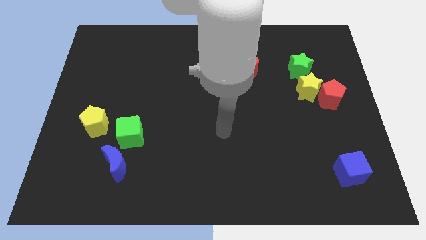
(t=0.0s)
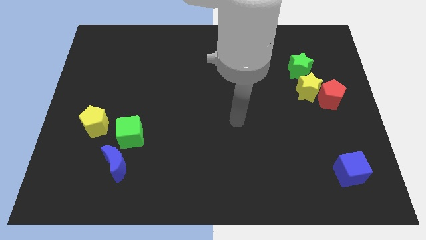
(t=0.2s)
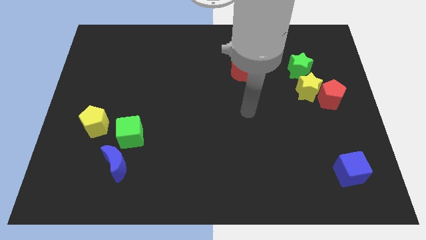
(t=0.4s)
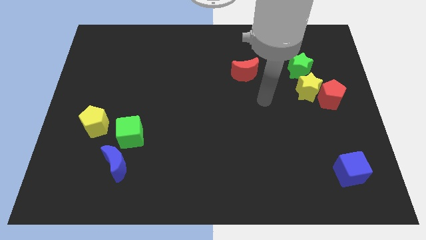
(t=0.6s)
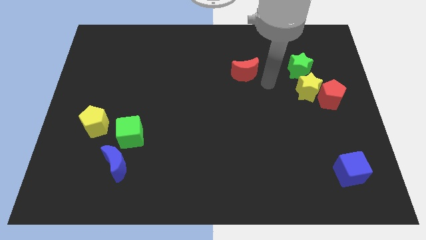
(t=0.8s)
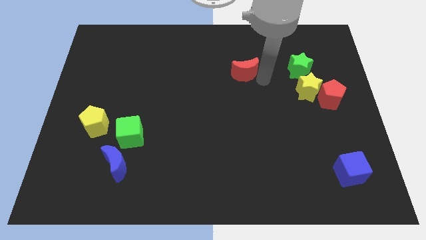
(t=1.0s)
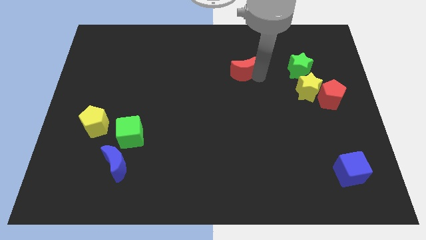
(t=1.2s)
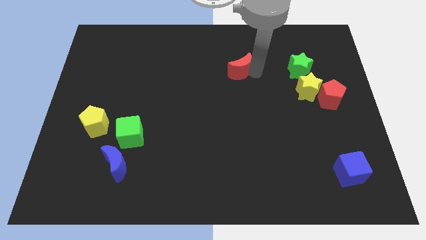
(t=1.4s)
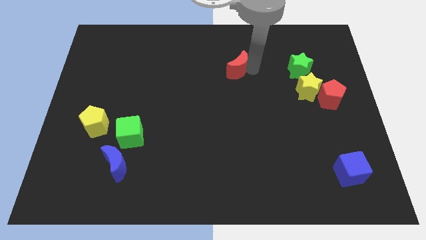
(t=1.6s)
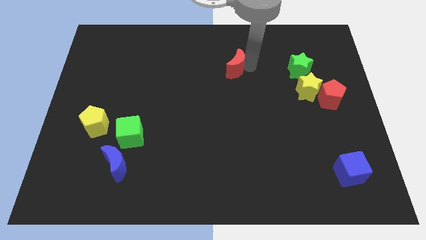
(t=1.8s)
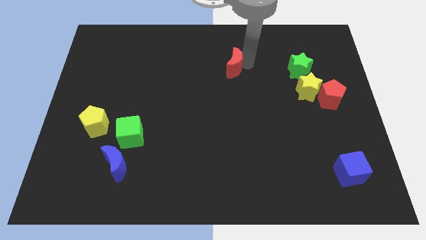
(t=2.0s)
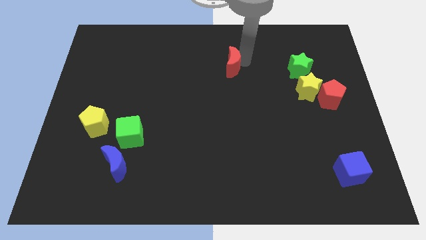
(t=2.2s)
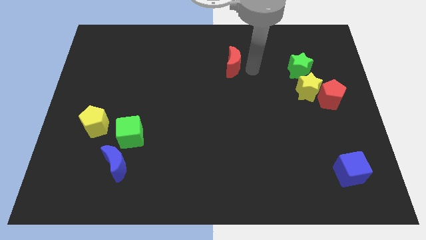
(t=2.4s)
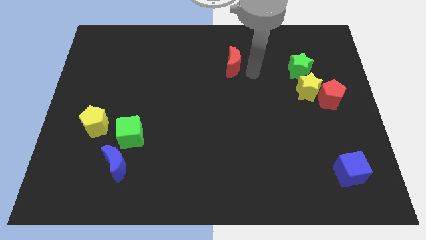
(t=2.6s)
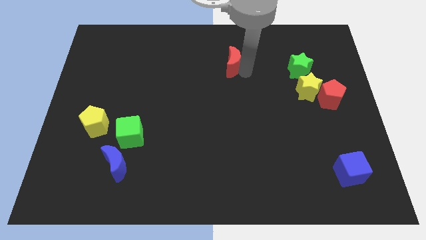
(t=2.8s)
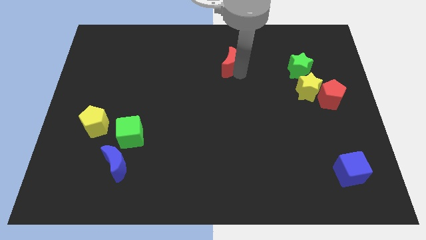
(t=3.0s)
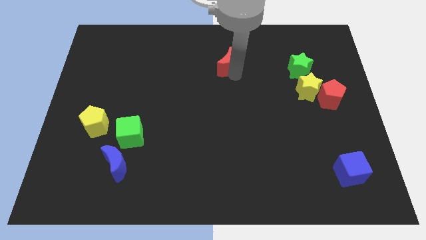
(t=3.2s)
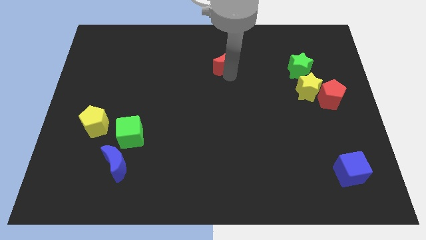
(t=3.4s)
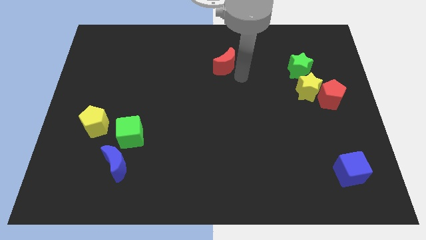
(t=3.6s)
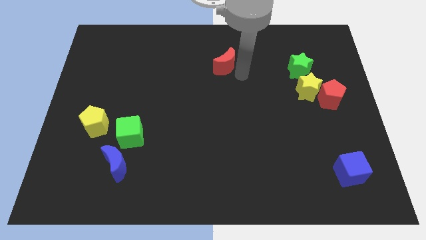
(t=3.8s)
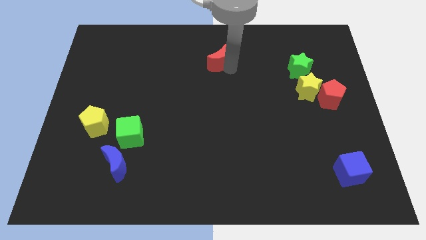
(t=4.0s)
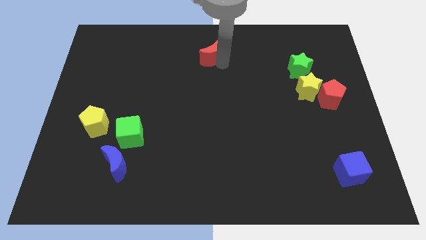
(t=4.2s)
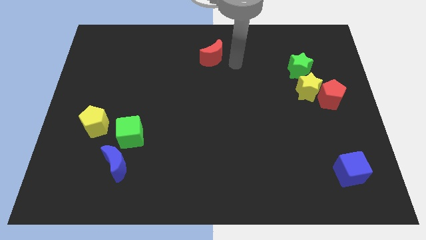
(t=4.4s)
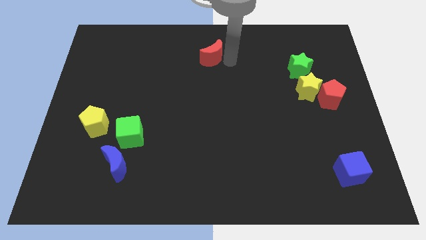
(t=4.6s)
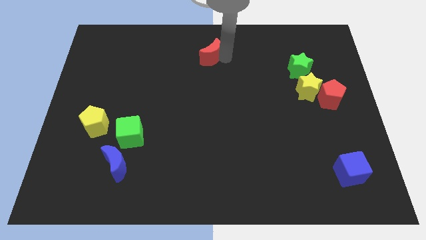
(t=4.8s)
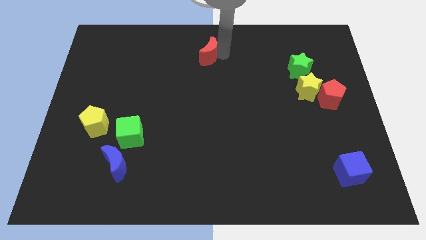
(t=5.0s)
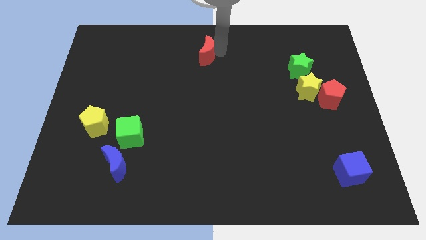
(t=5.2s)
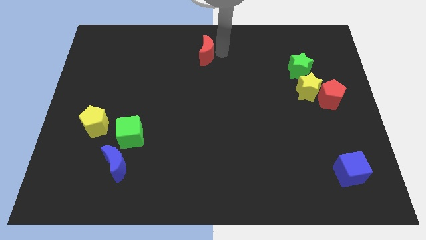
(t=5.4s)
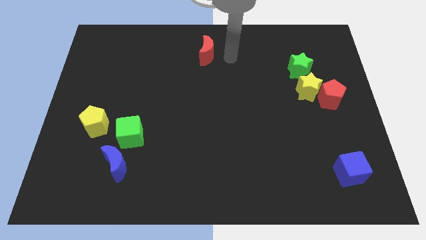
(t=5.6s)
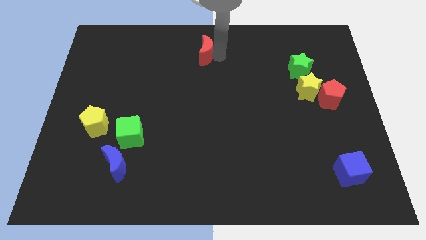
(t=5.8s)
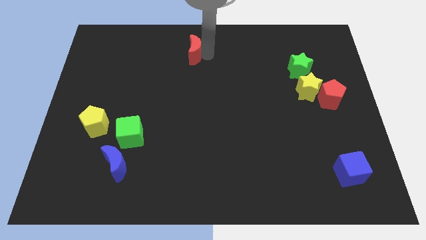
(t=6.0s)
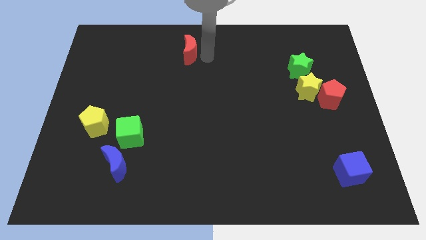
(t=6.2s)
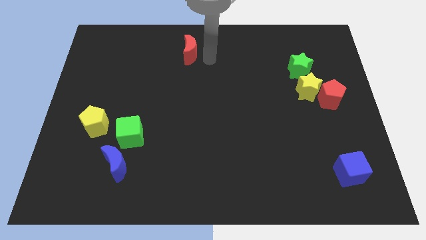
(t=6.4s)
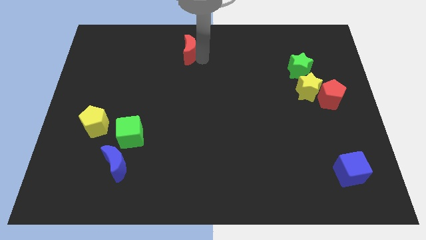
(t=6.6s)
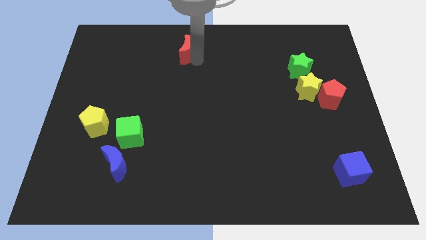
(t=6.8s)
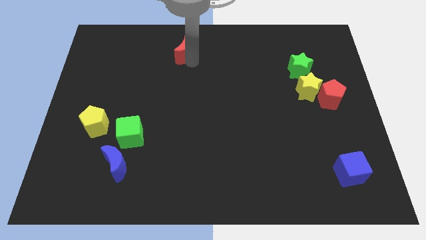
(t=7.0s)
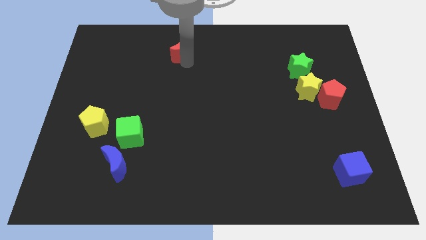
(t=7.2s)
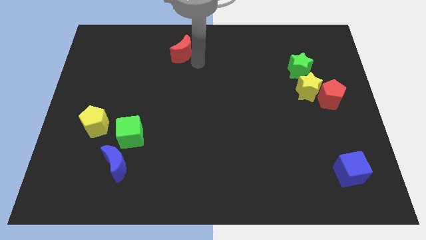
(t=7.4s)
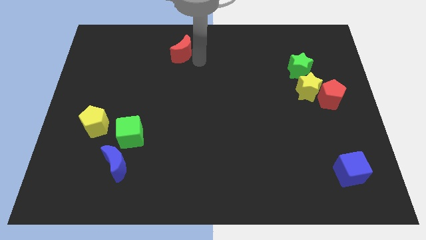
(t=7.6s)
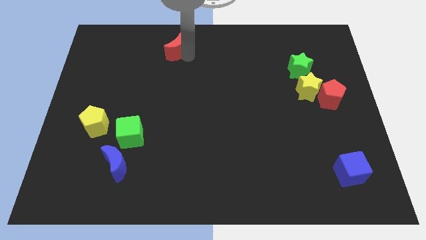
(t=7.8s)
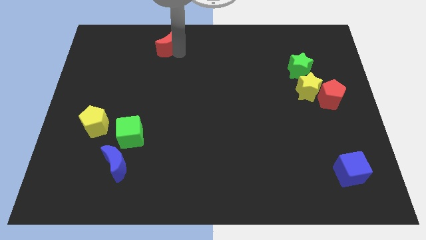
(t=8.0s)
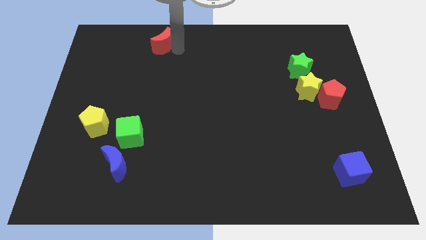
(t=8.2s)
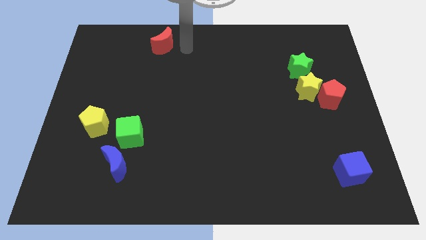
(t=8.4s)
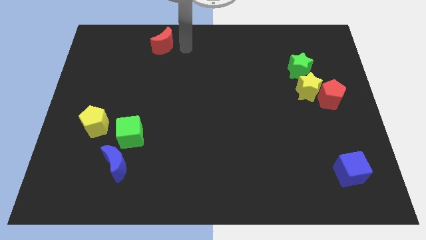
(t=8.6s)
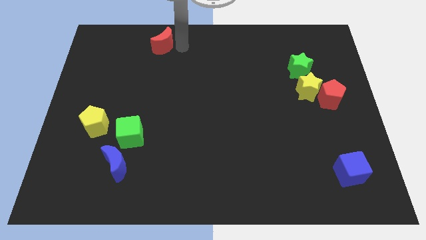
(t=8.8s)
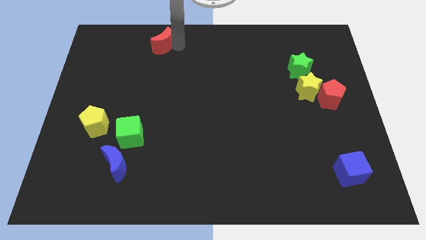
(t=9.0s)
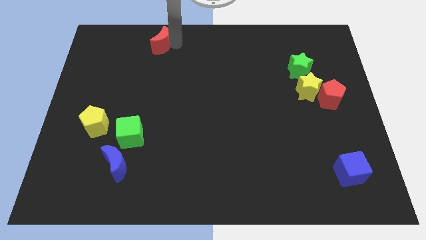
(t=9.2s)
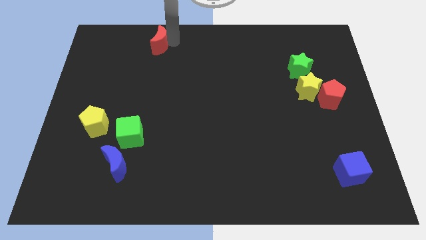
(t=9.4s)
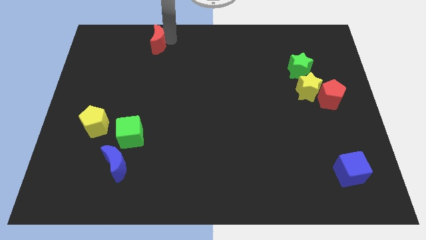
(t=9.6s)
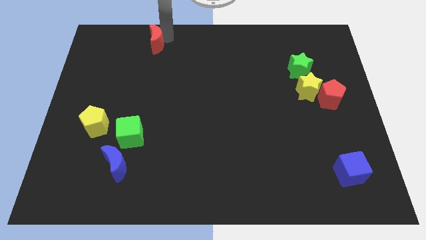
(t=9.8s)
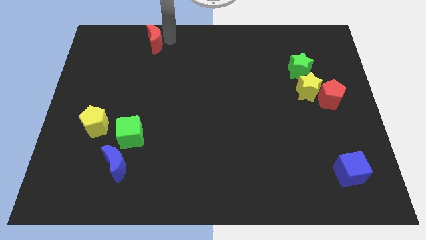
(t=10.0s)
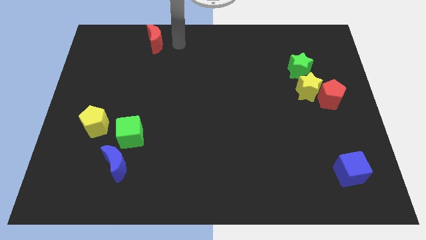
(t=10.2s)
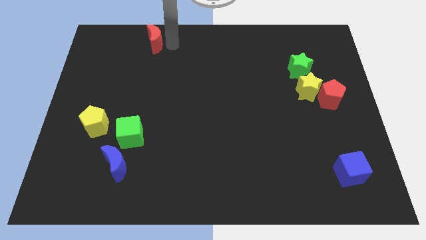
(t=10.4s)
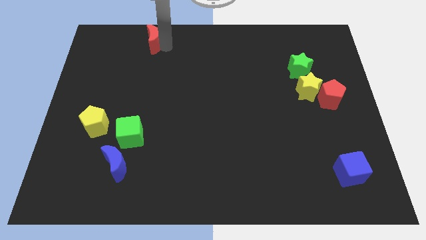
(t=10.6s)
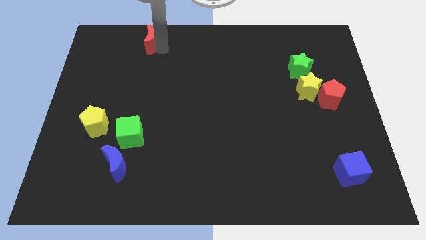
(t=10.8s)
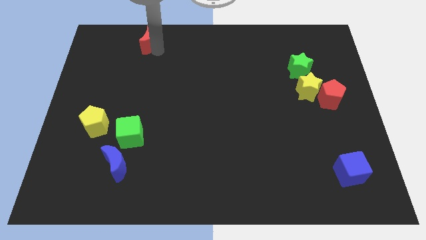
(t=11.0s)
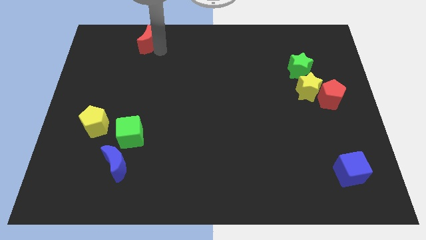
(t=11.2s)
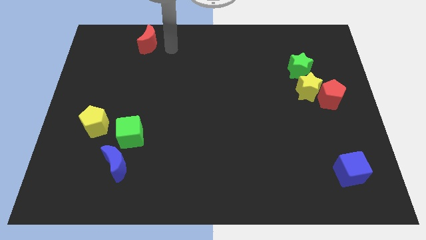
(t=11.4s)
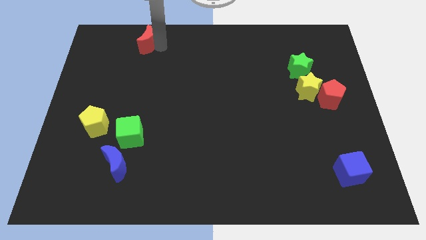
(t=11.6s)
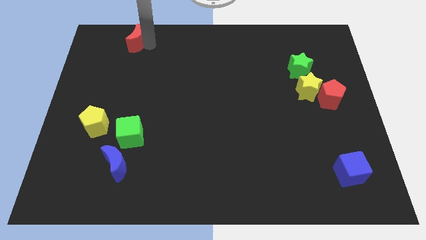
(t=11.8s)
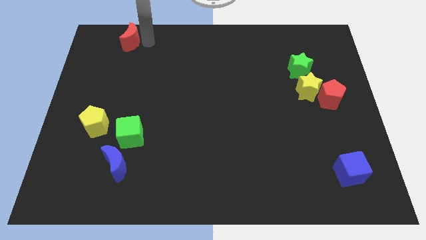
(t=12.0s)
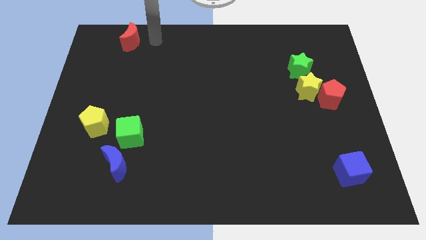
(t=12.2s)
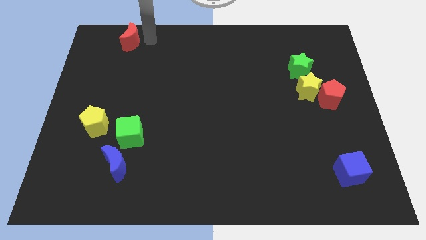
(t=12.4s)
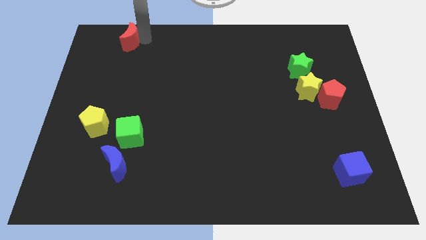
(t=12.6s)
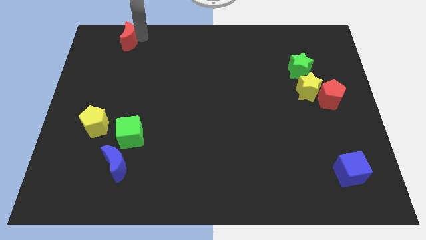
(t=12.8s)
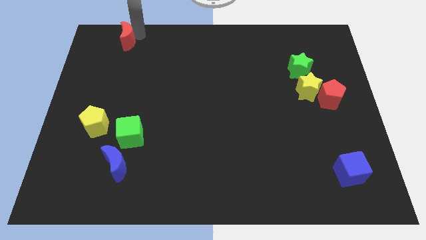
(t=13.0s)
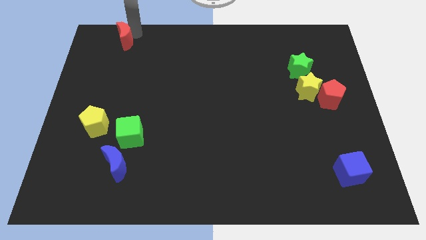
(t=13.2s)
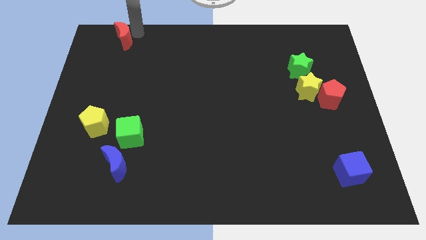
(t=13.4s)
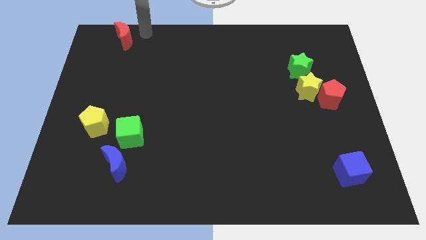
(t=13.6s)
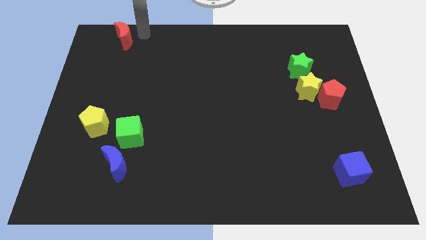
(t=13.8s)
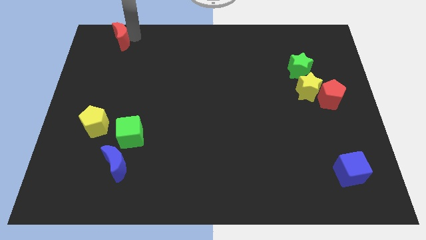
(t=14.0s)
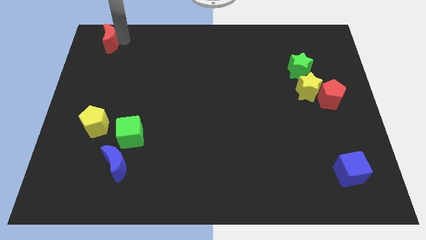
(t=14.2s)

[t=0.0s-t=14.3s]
move the red moon to the top left of the board
